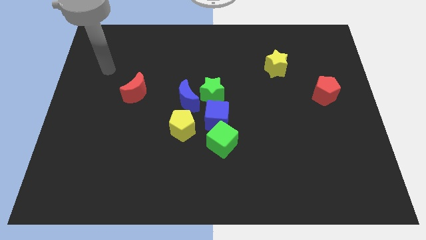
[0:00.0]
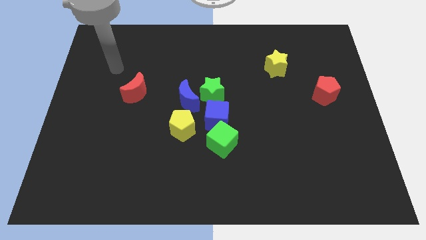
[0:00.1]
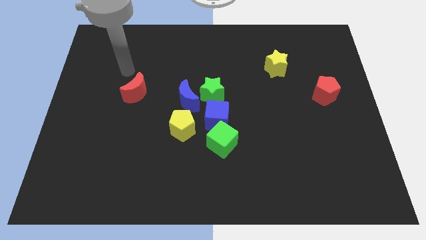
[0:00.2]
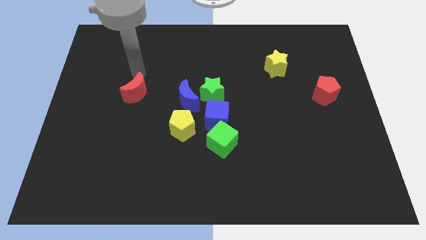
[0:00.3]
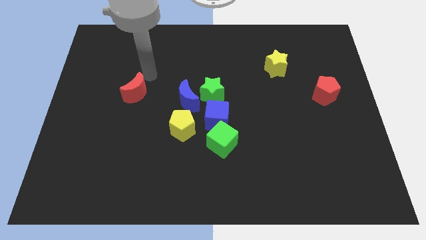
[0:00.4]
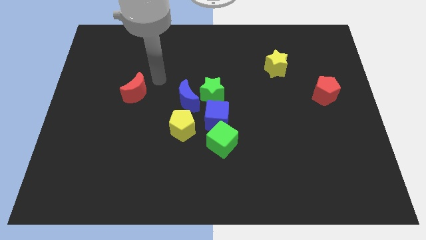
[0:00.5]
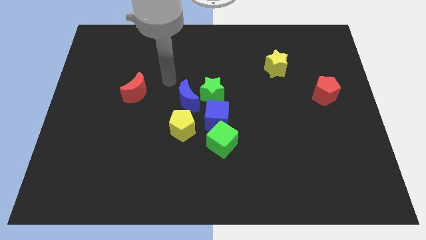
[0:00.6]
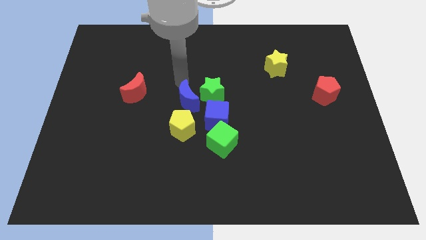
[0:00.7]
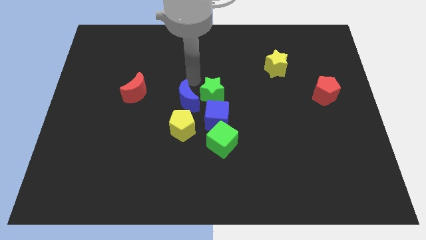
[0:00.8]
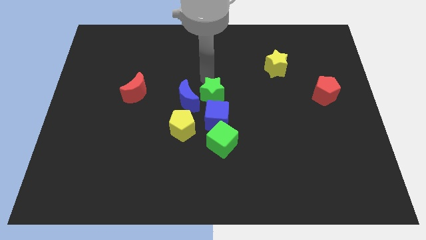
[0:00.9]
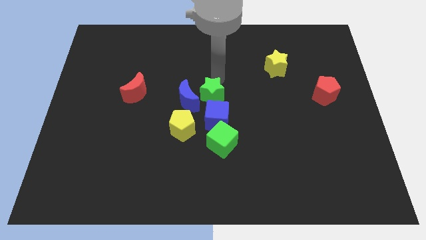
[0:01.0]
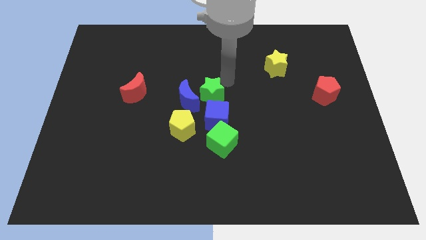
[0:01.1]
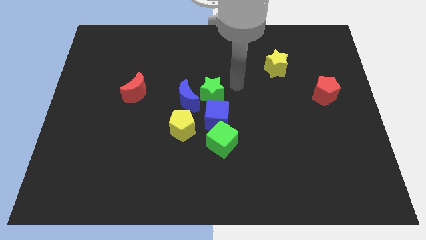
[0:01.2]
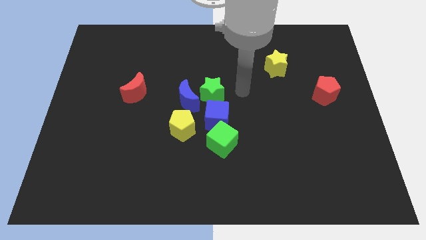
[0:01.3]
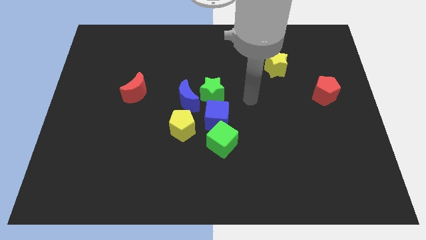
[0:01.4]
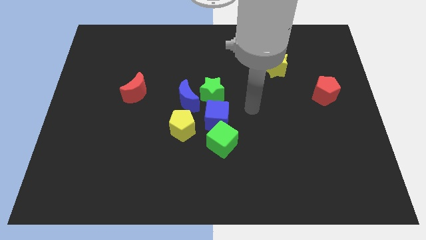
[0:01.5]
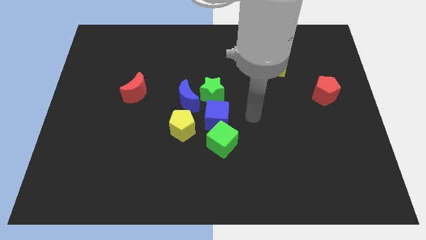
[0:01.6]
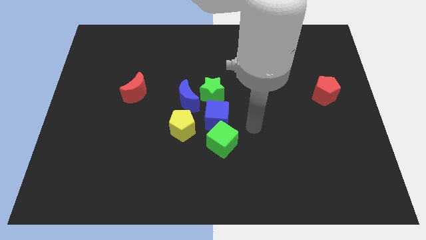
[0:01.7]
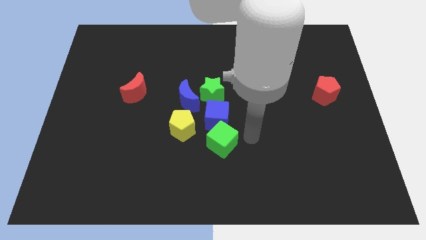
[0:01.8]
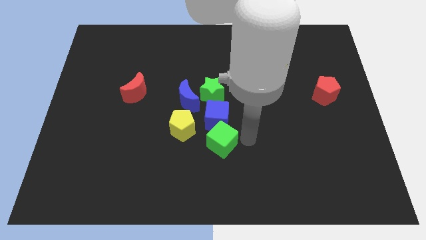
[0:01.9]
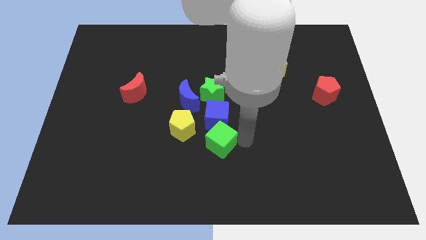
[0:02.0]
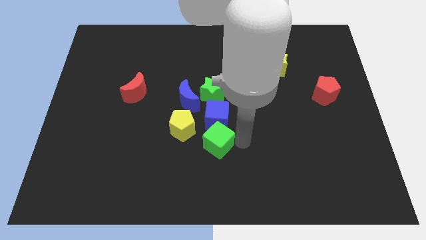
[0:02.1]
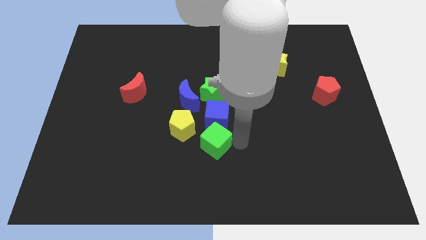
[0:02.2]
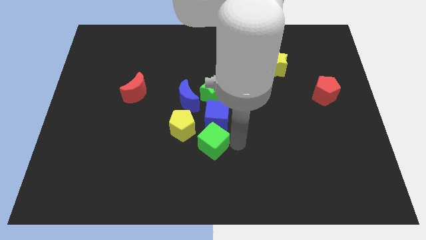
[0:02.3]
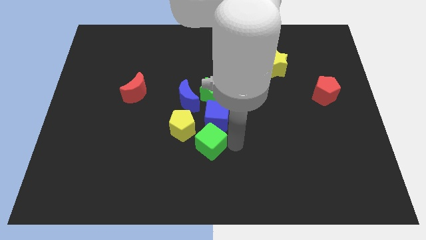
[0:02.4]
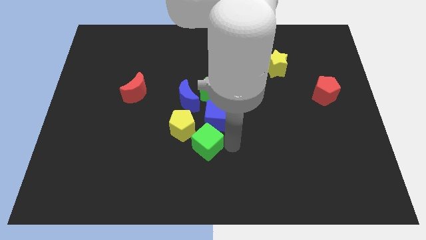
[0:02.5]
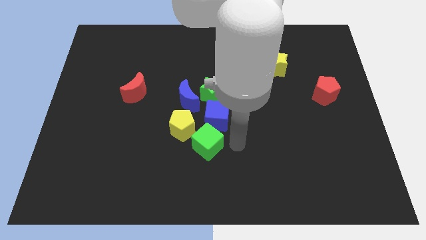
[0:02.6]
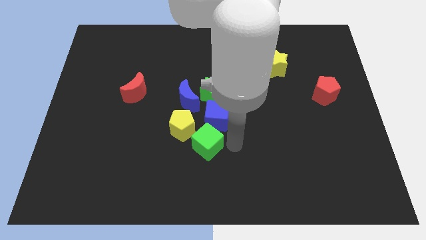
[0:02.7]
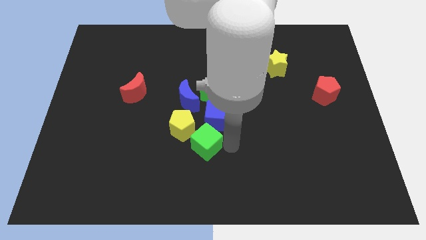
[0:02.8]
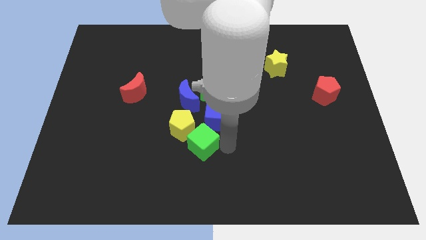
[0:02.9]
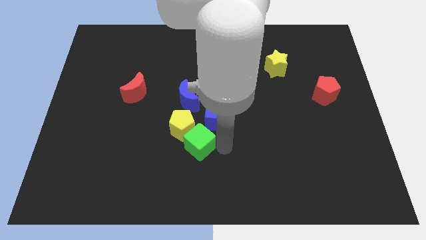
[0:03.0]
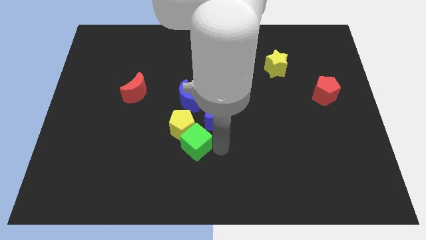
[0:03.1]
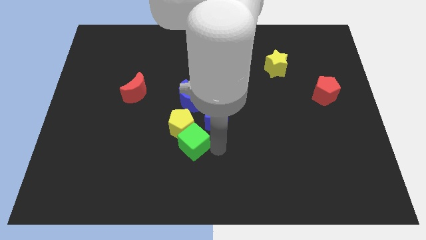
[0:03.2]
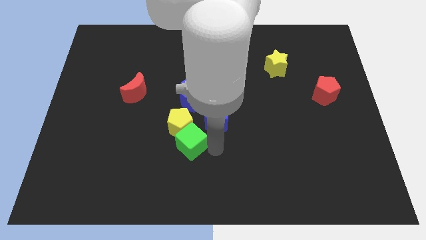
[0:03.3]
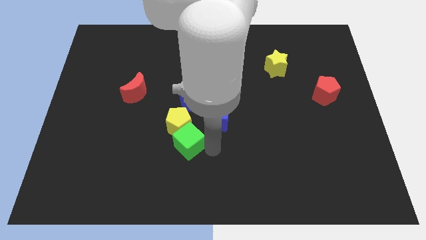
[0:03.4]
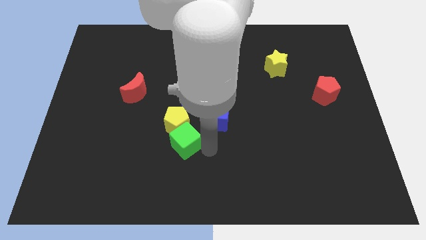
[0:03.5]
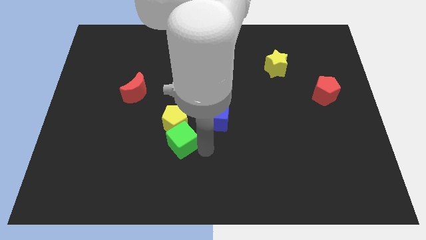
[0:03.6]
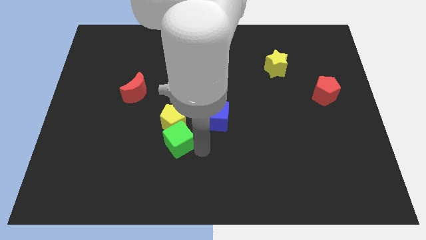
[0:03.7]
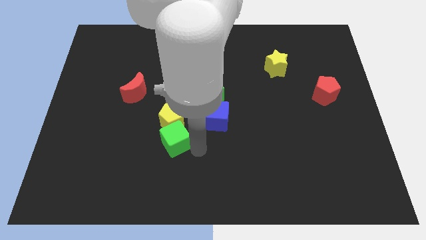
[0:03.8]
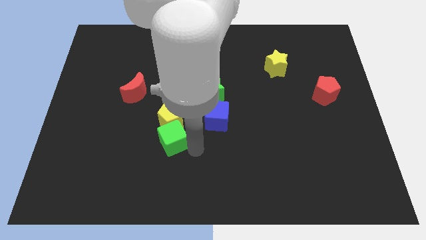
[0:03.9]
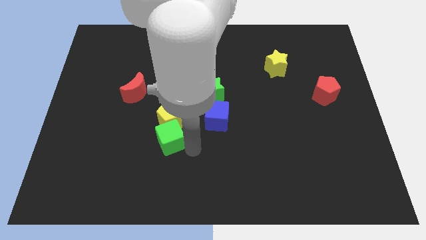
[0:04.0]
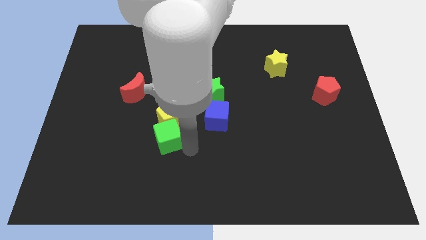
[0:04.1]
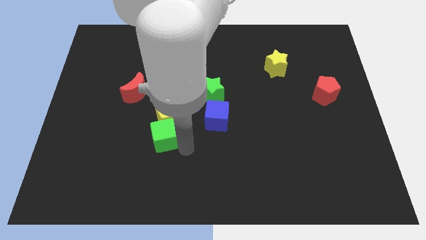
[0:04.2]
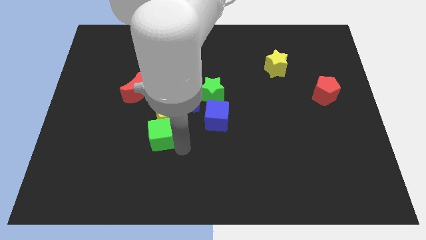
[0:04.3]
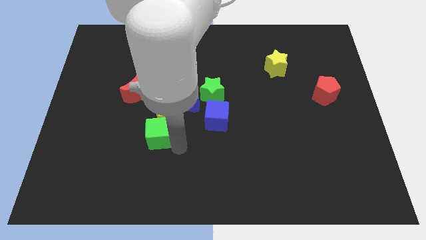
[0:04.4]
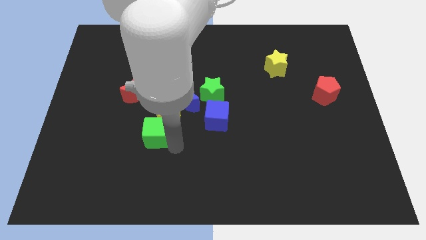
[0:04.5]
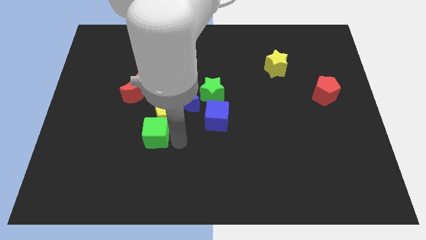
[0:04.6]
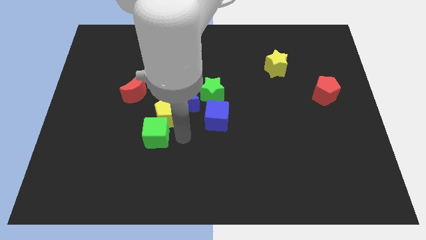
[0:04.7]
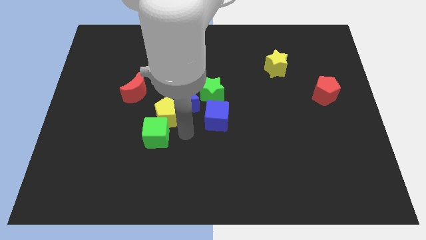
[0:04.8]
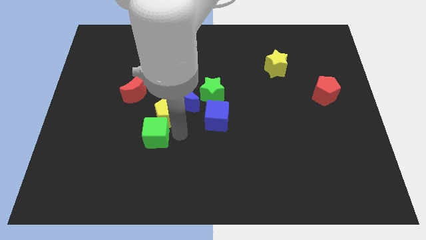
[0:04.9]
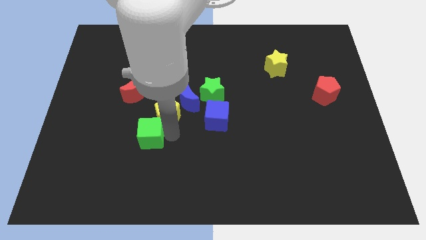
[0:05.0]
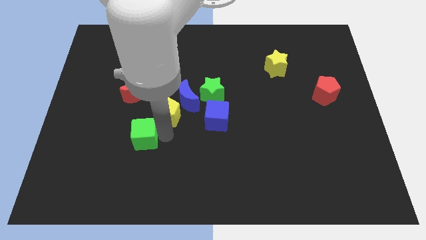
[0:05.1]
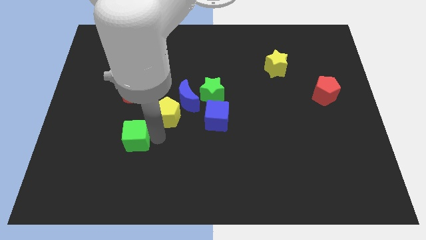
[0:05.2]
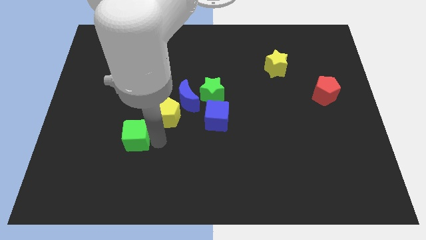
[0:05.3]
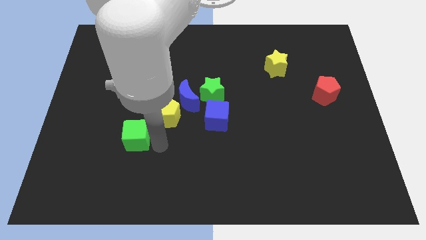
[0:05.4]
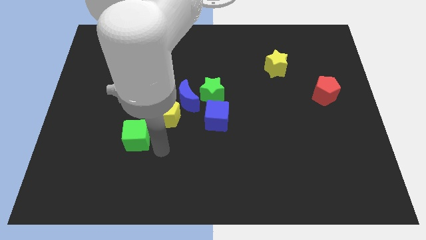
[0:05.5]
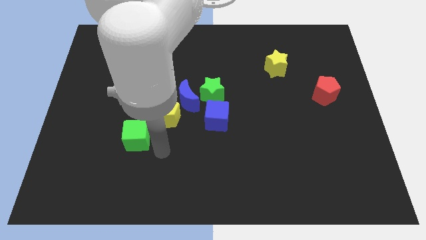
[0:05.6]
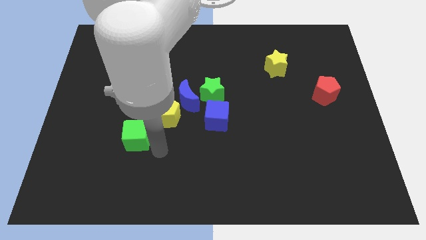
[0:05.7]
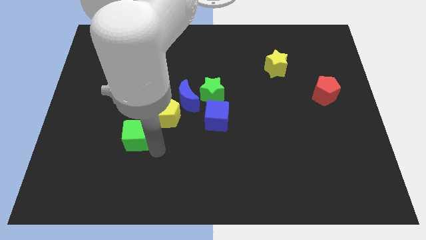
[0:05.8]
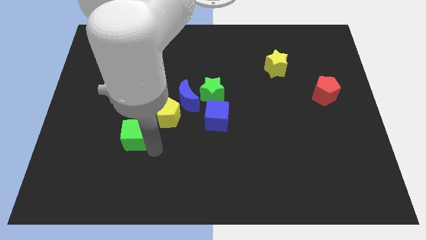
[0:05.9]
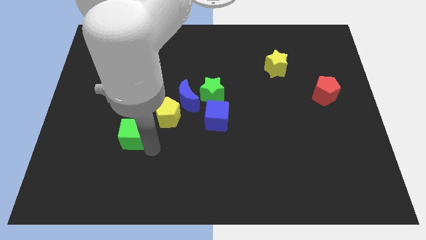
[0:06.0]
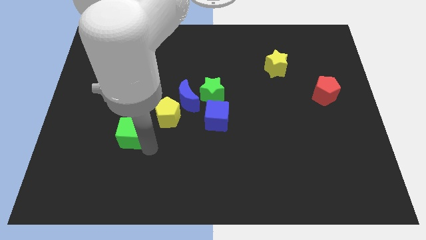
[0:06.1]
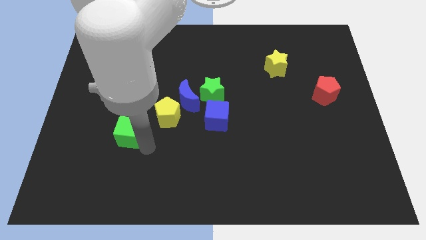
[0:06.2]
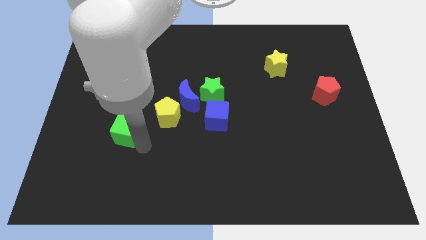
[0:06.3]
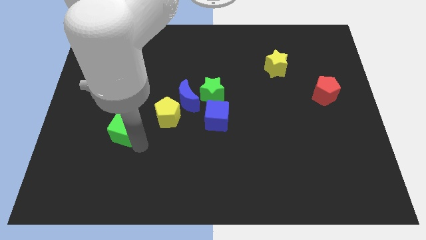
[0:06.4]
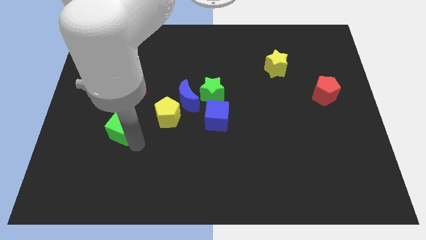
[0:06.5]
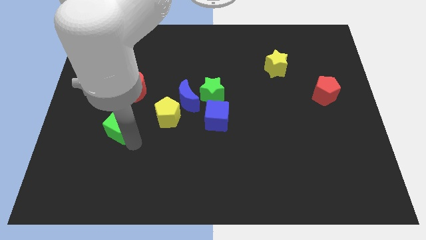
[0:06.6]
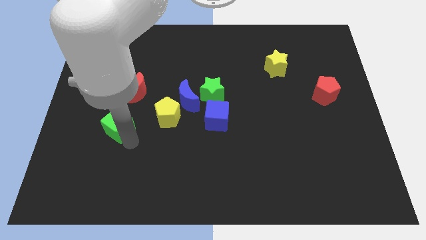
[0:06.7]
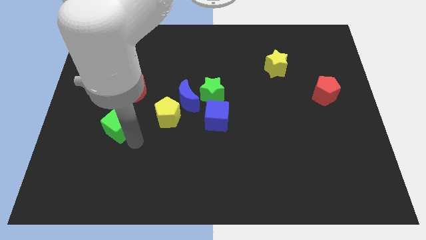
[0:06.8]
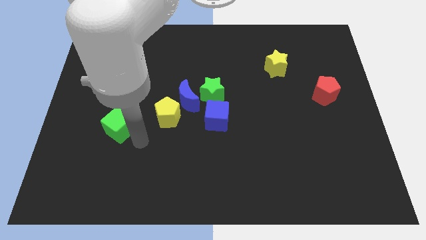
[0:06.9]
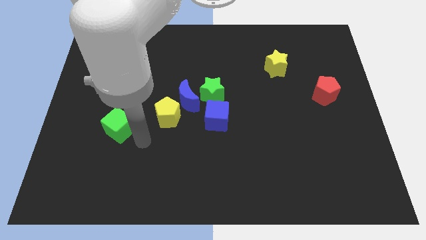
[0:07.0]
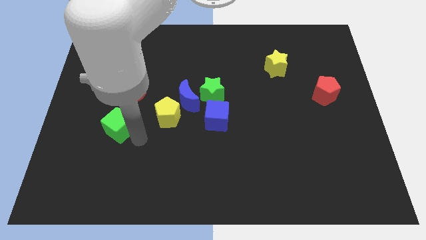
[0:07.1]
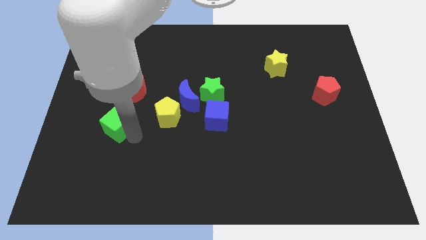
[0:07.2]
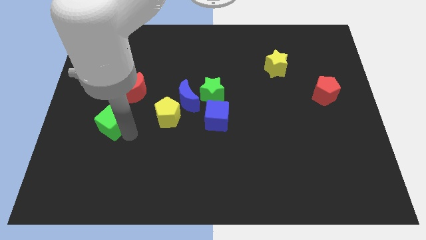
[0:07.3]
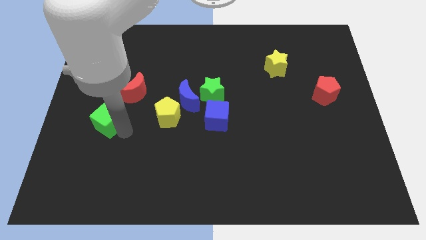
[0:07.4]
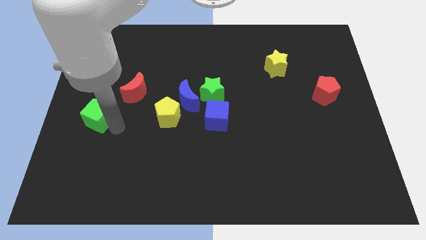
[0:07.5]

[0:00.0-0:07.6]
slide the green cube to the left side
